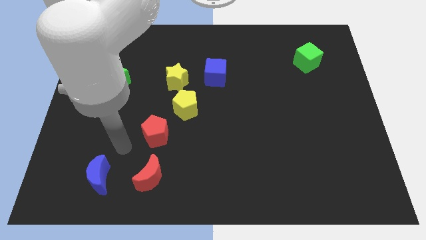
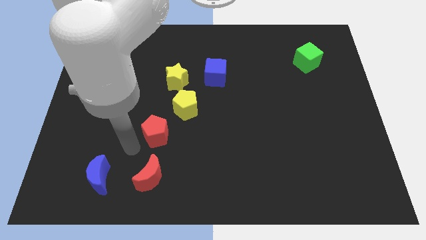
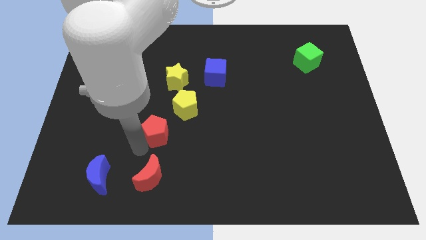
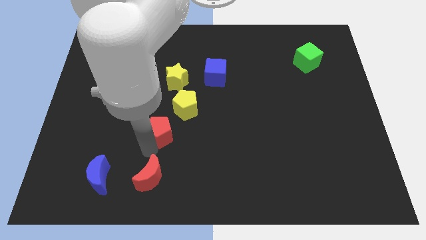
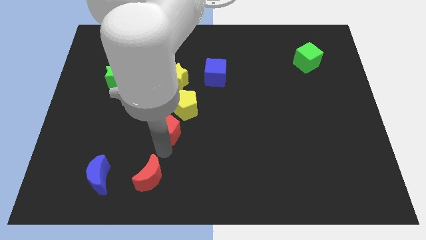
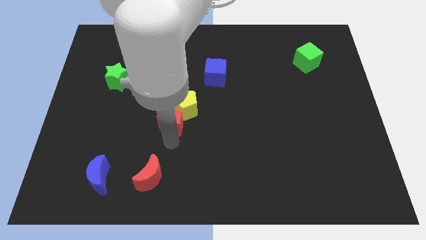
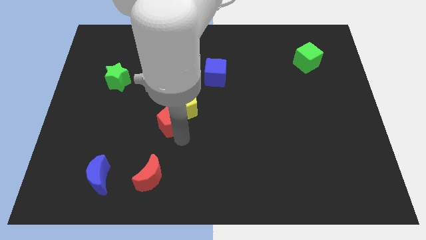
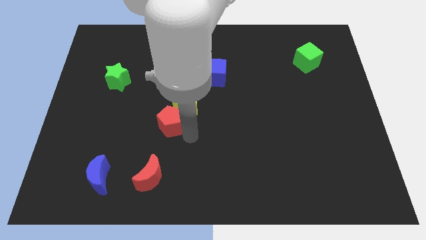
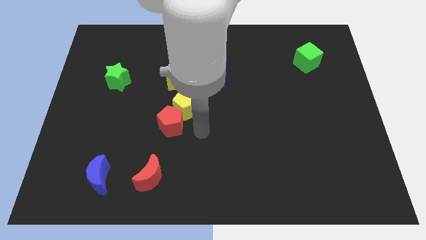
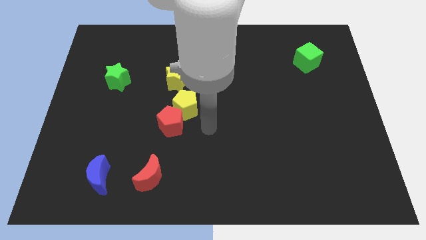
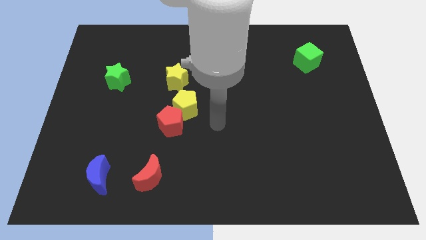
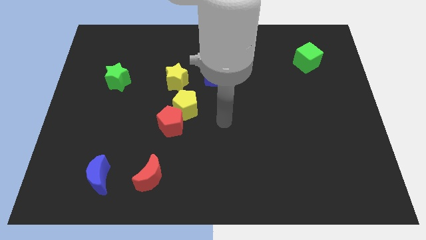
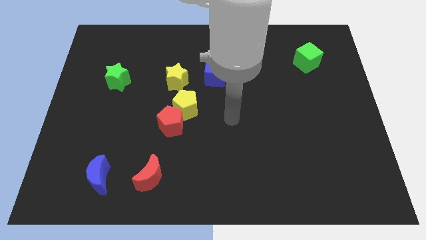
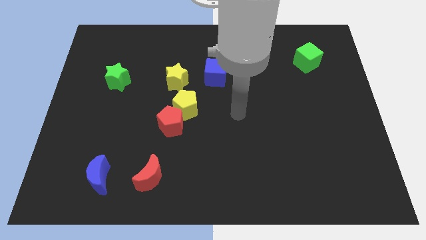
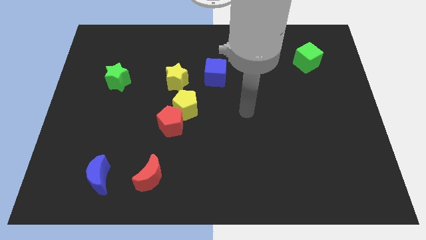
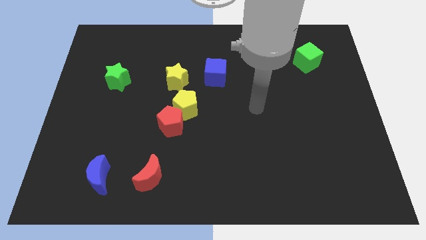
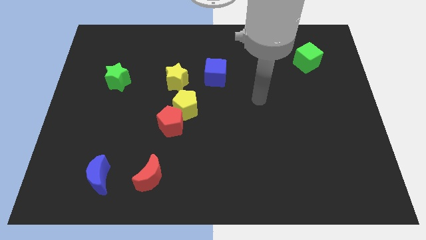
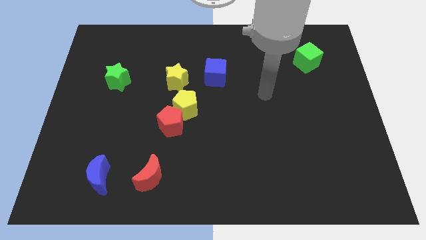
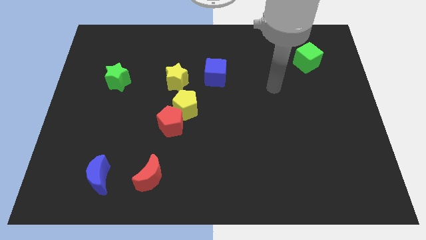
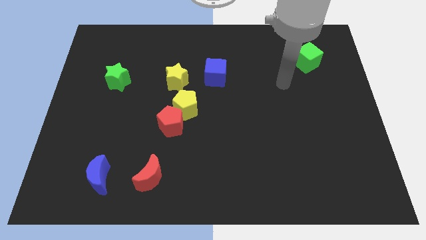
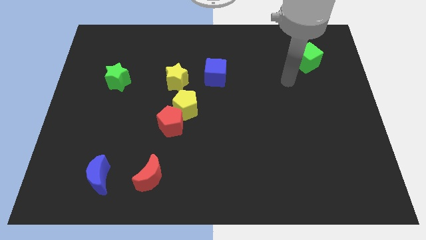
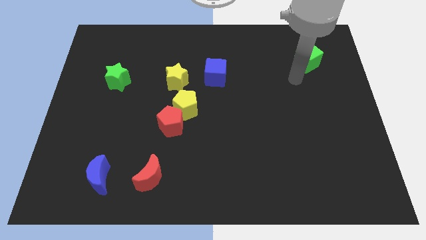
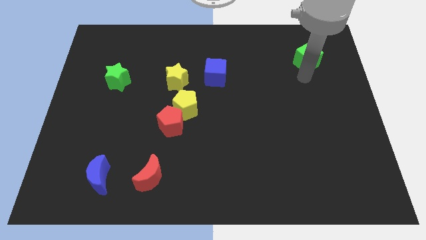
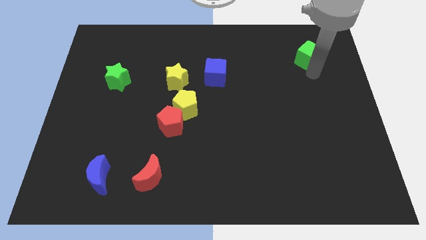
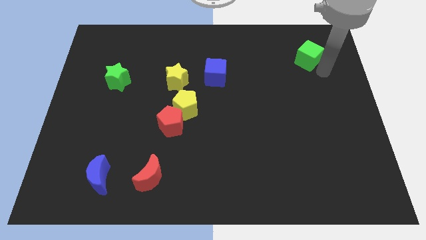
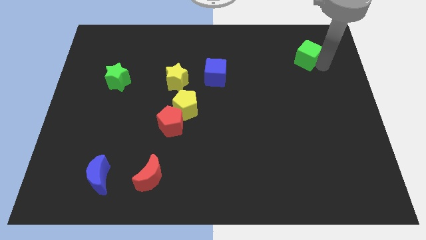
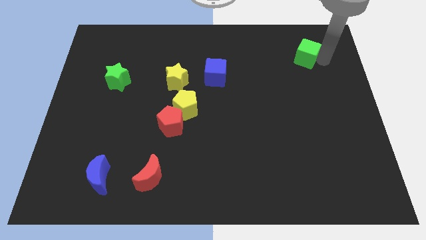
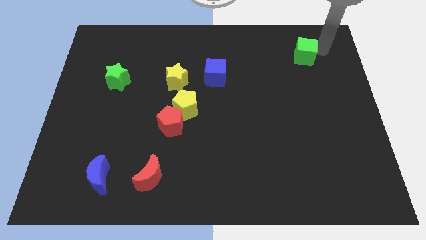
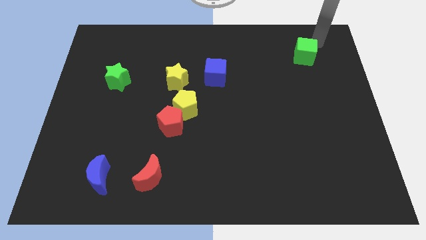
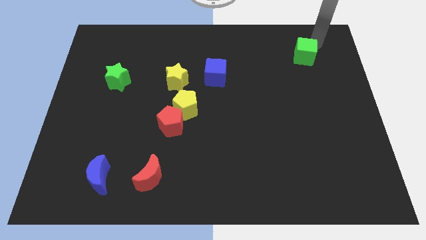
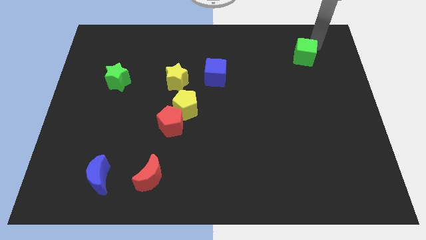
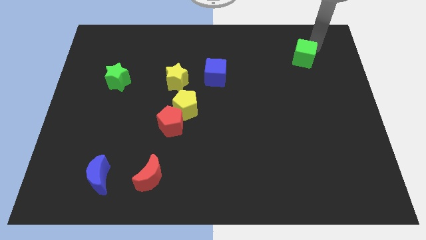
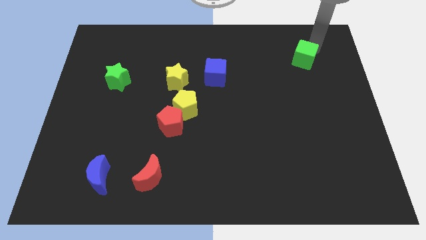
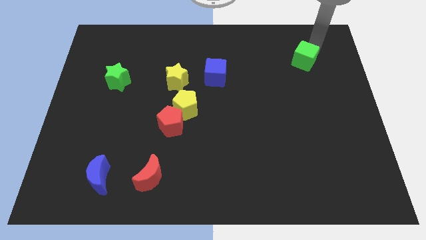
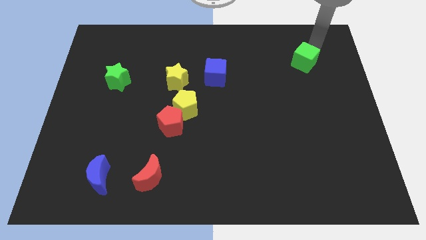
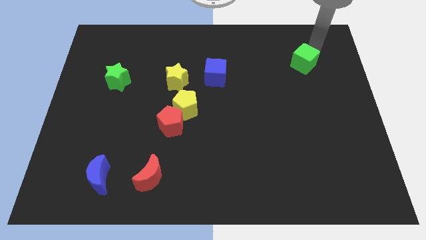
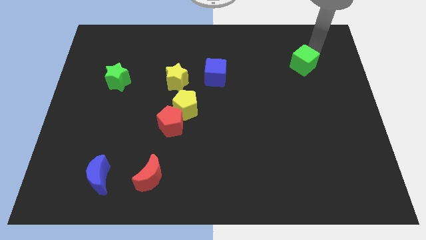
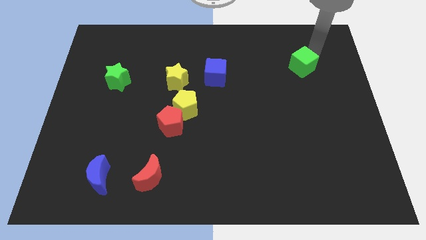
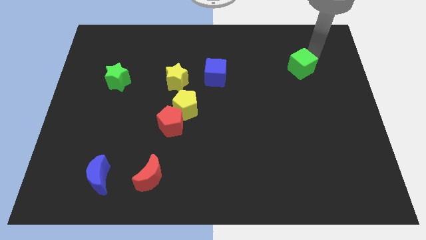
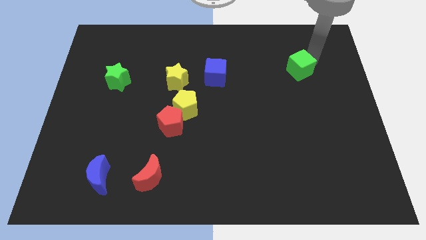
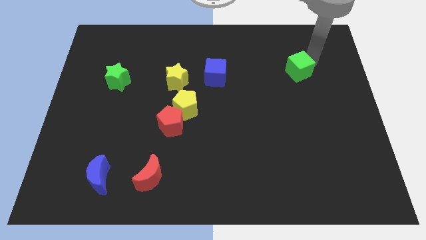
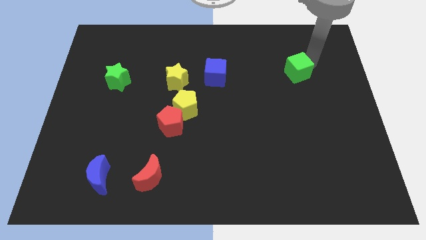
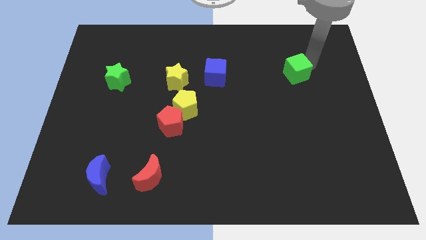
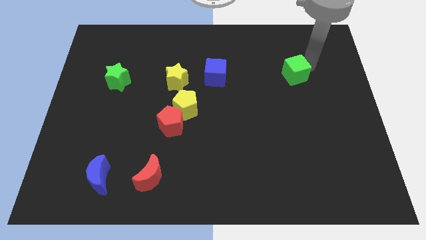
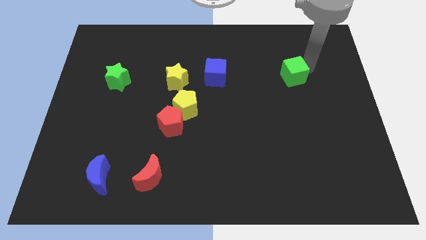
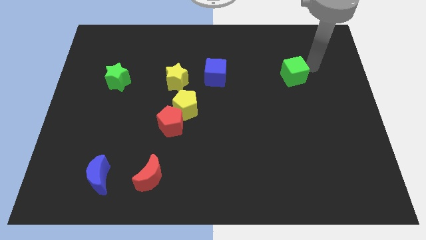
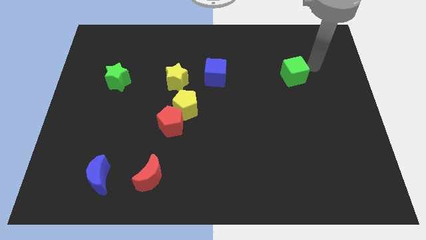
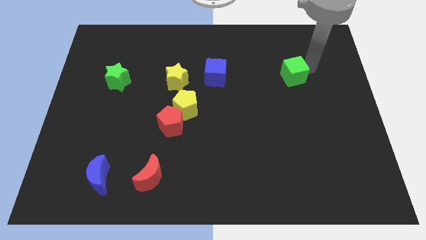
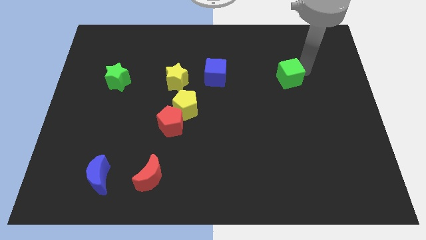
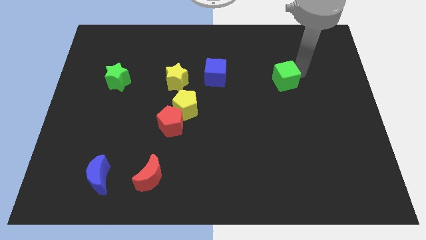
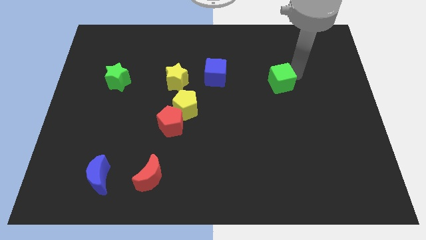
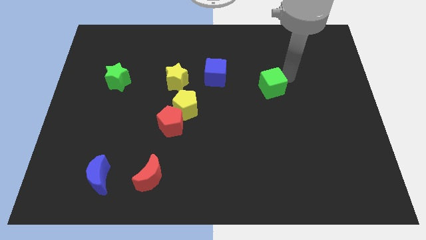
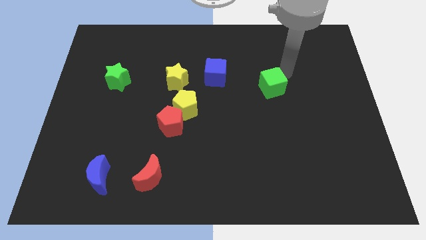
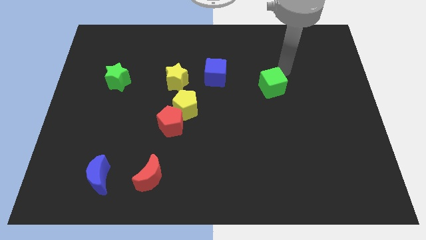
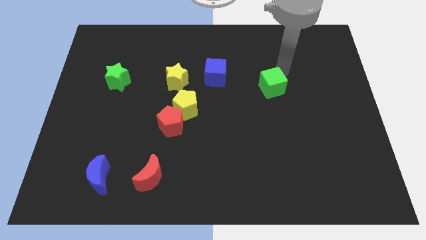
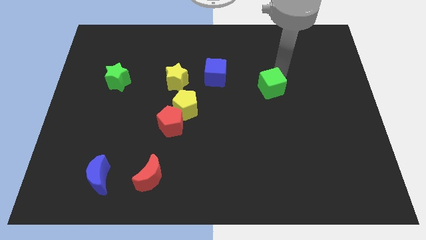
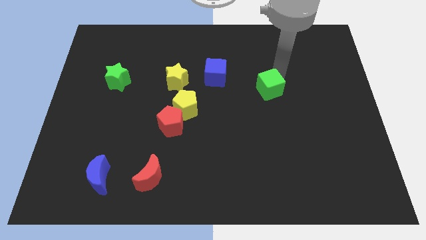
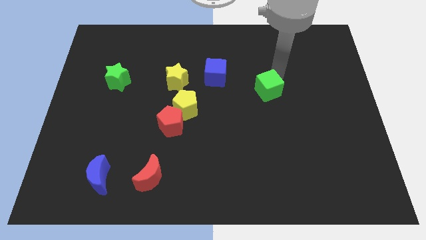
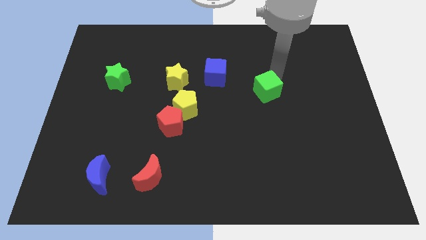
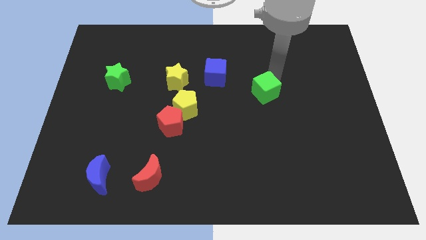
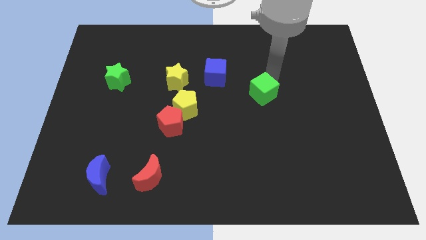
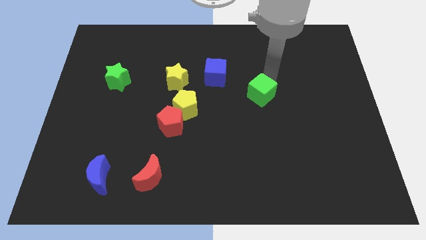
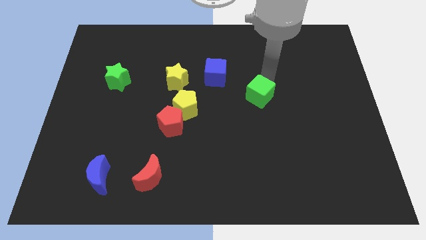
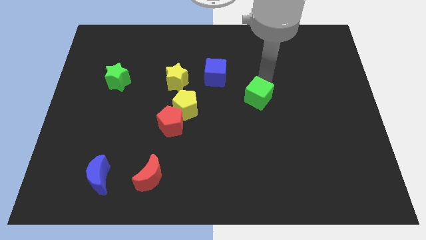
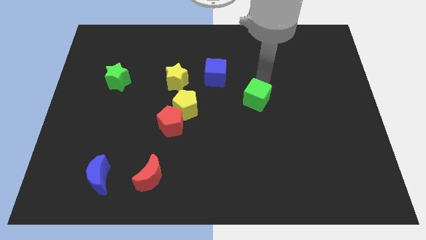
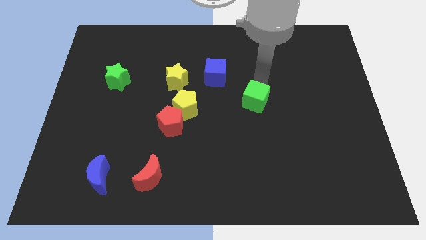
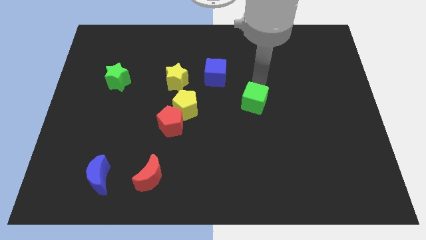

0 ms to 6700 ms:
push the green cube downwards and then to the left

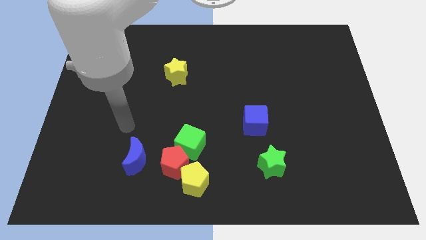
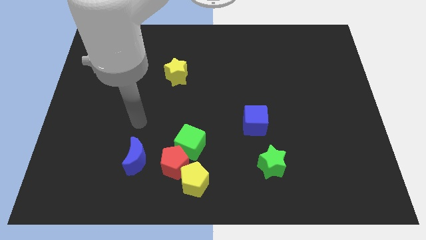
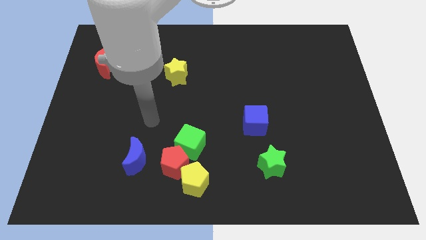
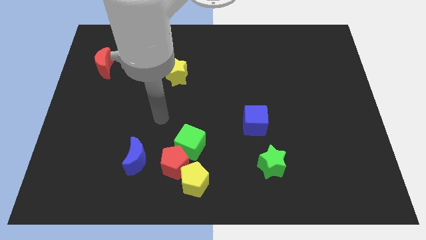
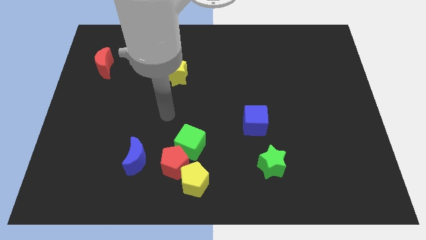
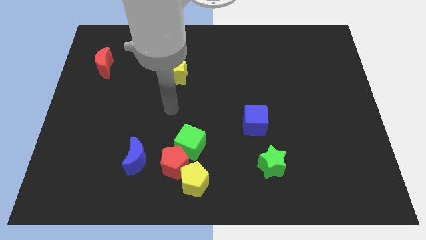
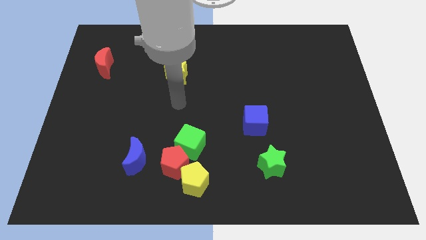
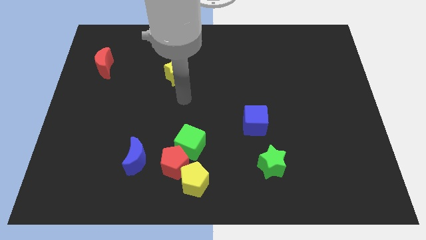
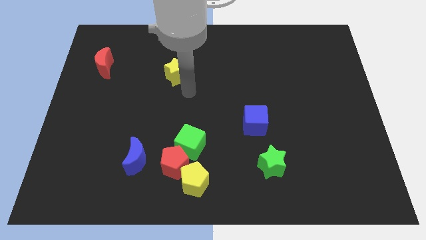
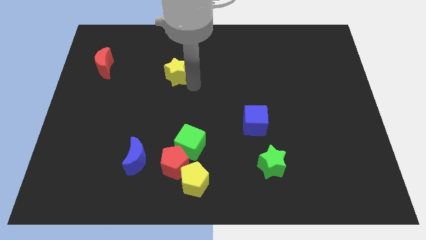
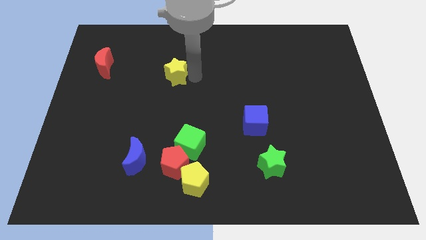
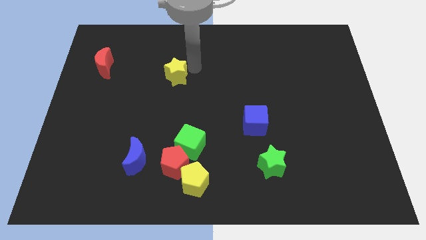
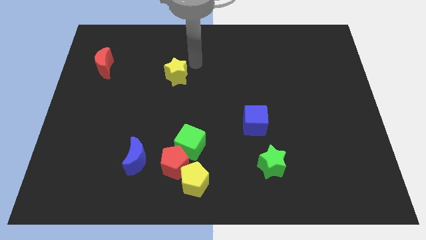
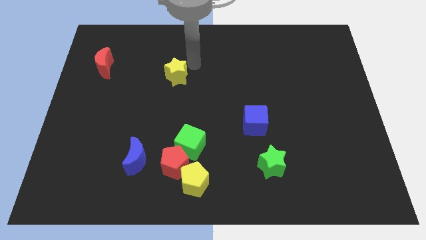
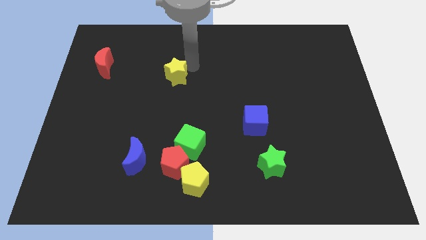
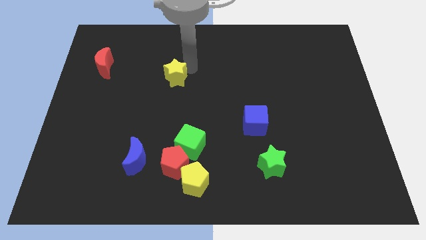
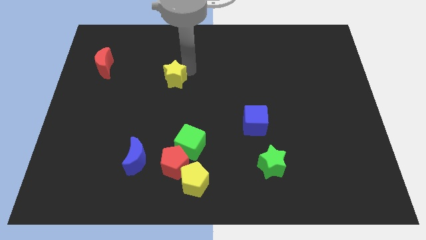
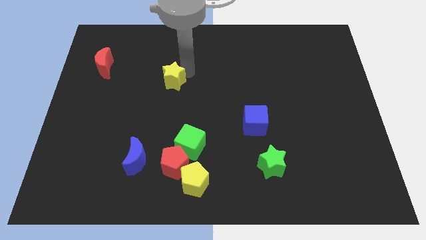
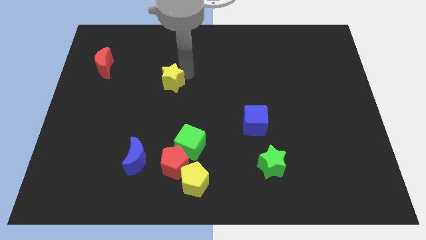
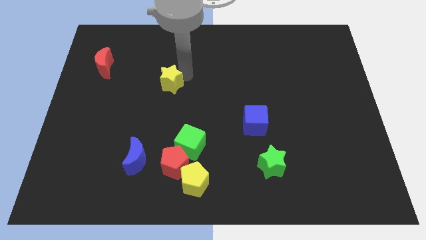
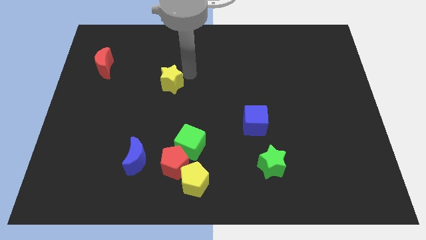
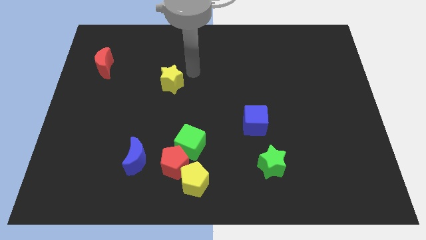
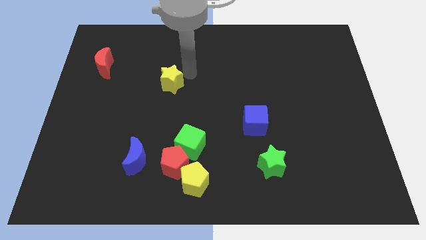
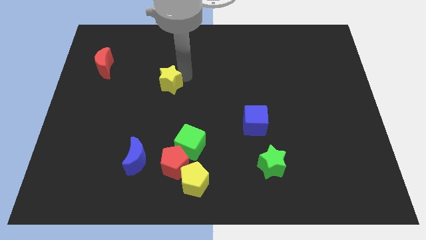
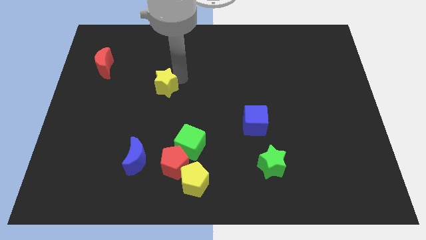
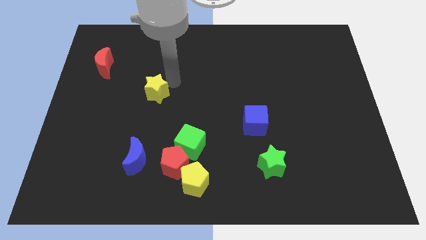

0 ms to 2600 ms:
slide the yellow star down and left diagonally a little bit
